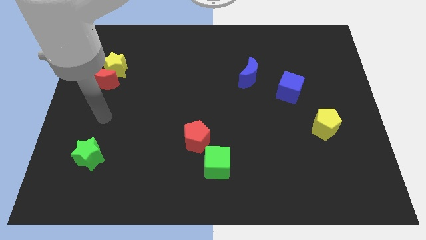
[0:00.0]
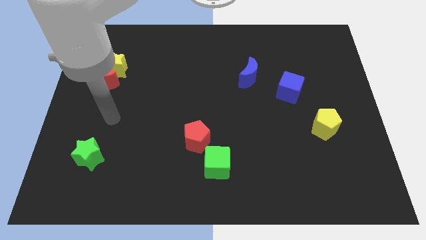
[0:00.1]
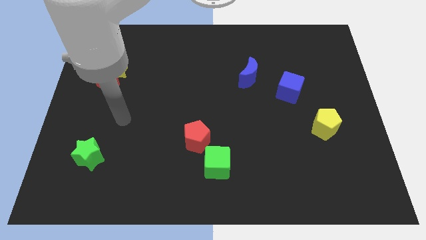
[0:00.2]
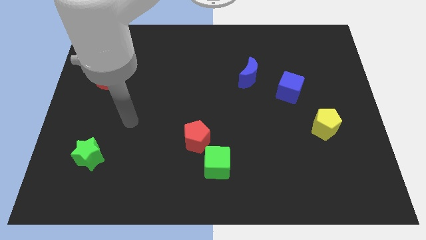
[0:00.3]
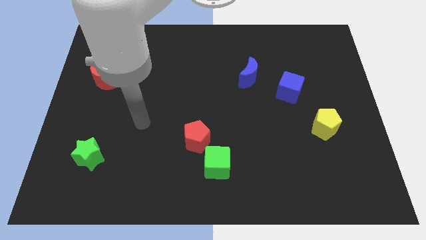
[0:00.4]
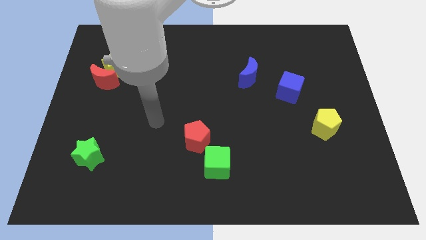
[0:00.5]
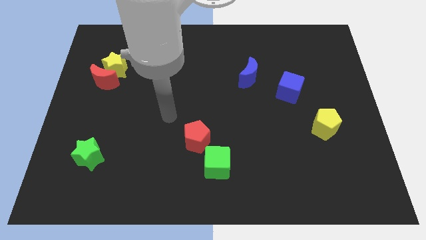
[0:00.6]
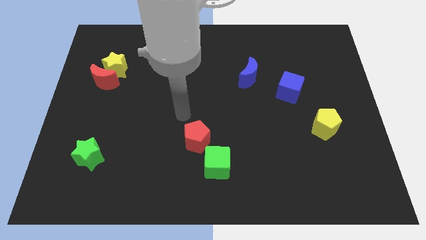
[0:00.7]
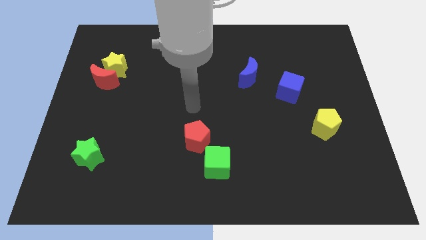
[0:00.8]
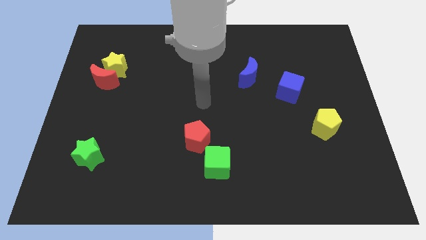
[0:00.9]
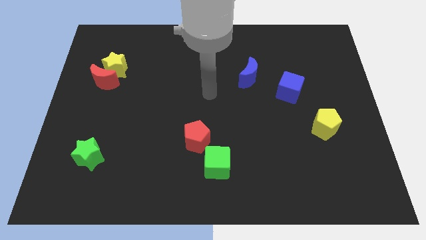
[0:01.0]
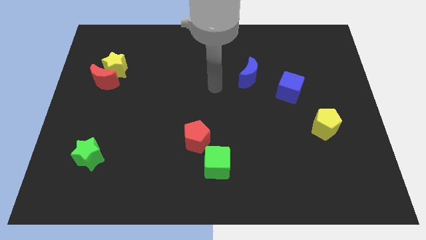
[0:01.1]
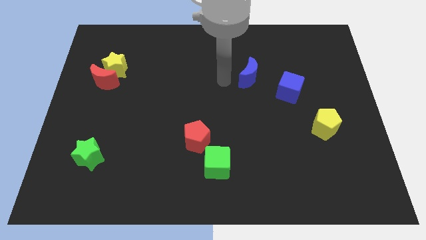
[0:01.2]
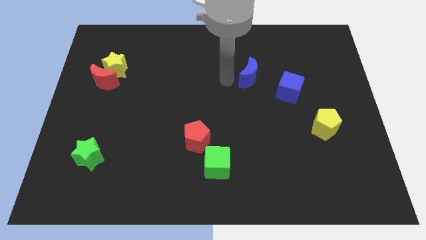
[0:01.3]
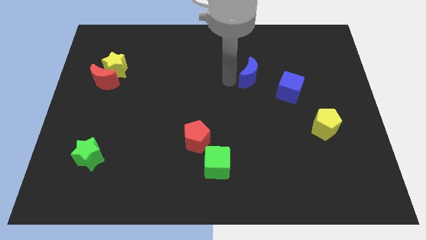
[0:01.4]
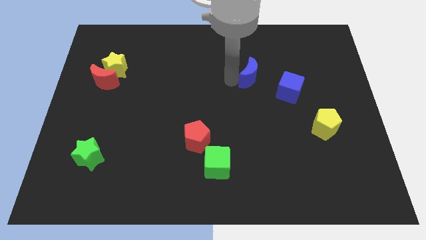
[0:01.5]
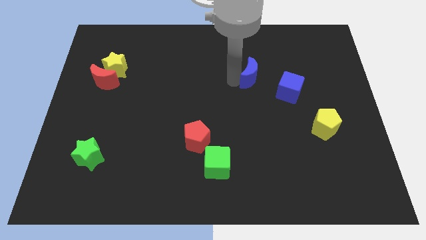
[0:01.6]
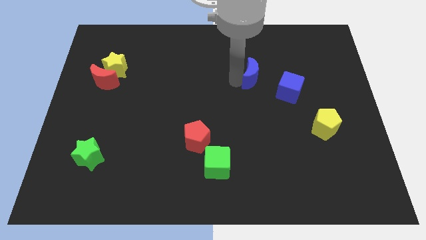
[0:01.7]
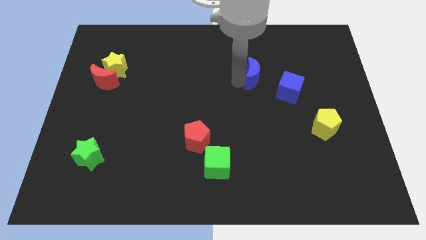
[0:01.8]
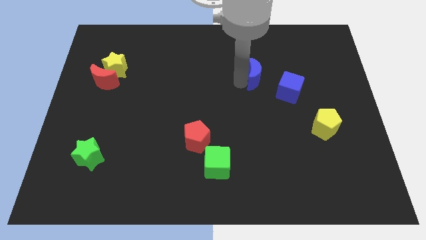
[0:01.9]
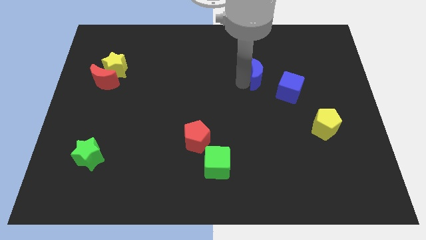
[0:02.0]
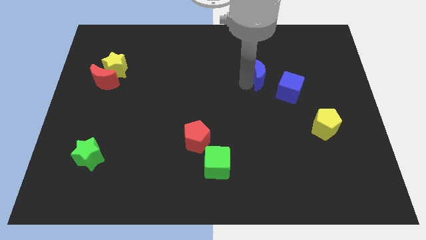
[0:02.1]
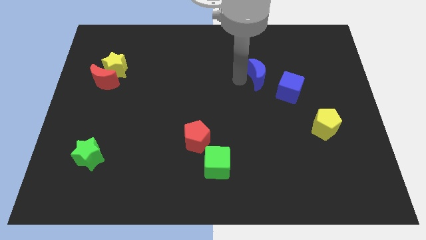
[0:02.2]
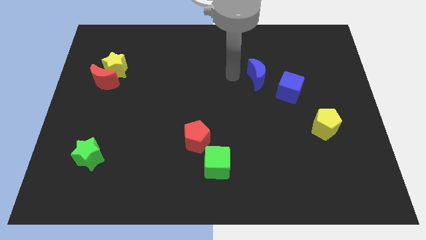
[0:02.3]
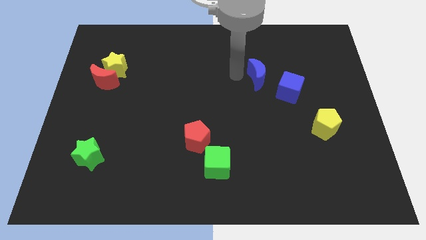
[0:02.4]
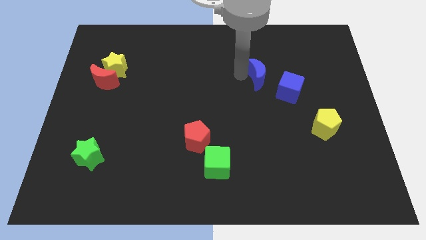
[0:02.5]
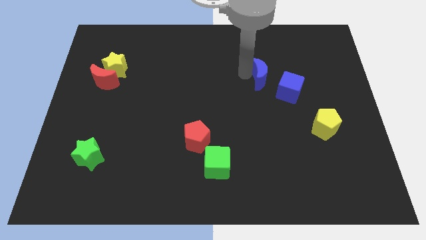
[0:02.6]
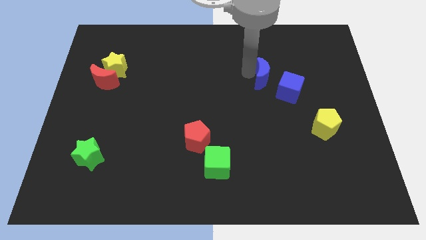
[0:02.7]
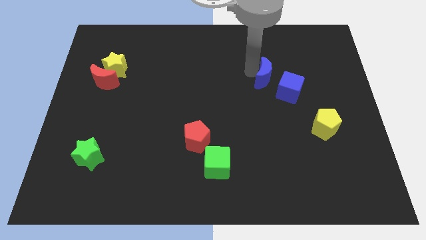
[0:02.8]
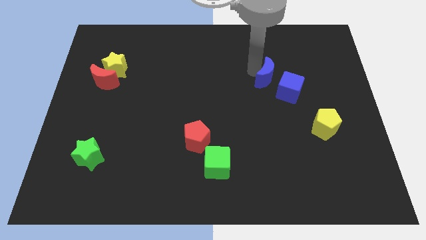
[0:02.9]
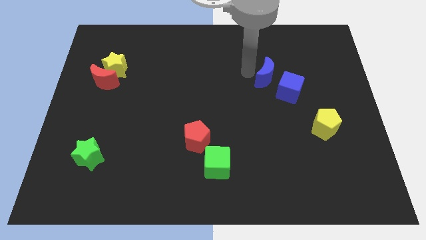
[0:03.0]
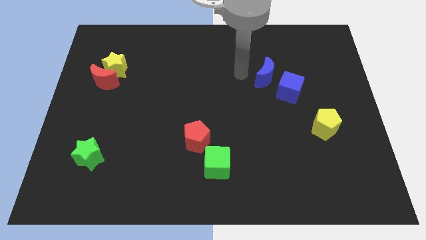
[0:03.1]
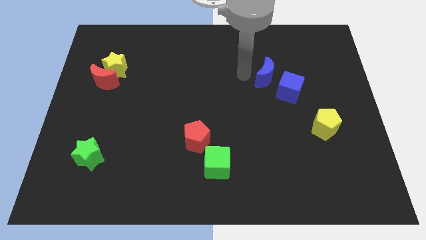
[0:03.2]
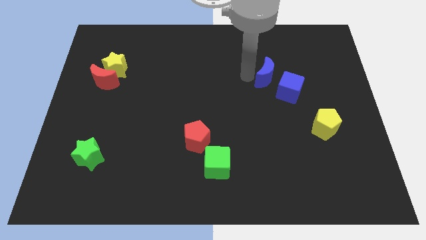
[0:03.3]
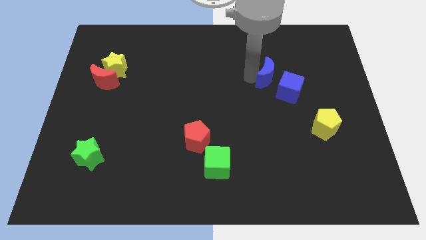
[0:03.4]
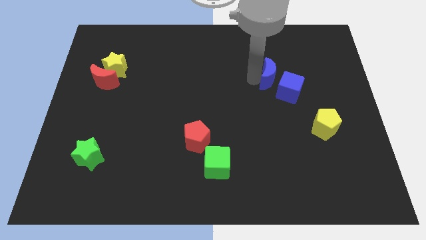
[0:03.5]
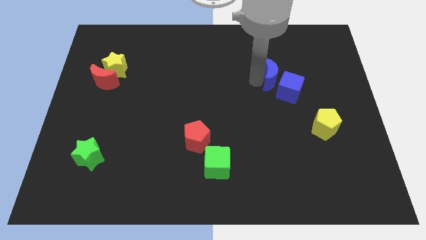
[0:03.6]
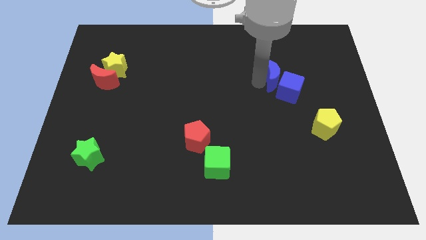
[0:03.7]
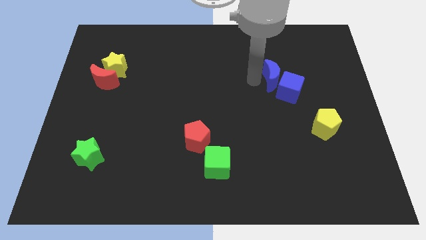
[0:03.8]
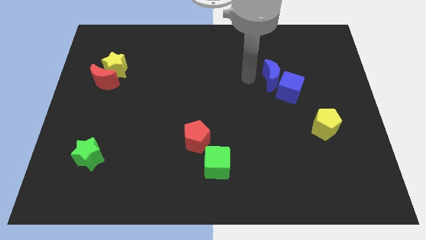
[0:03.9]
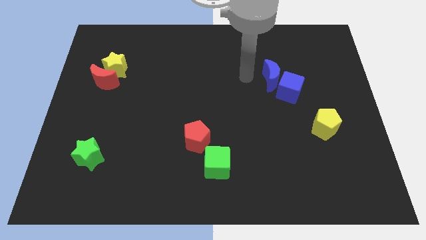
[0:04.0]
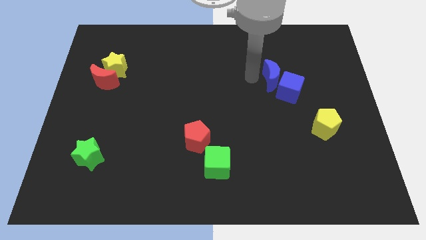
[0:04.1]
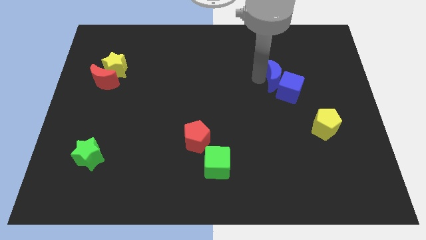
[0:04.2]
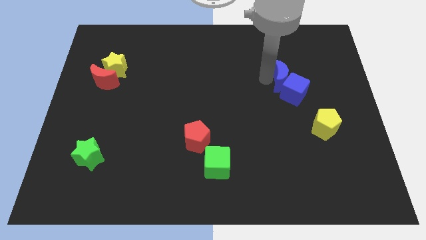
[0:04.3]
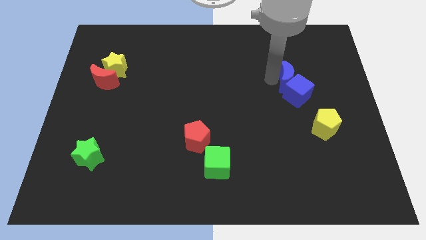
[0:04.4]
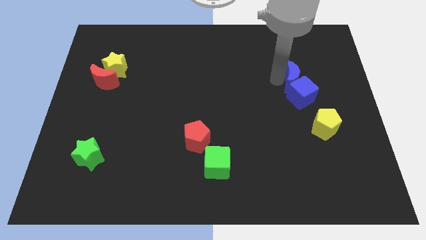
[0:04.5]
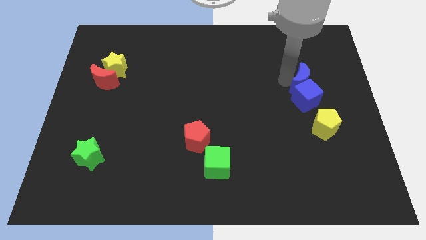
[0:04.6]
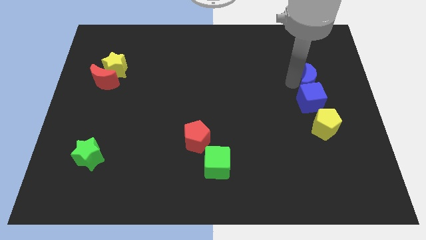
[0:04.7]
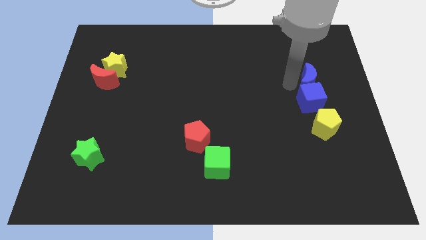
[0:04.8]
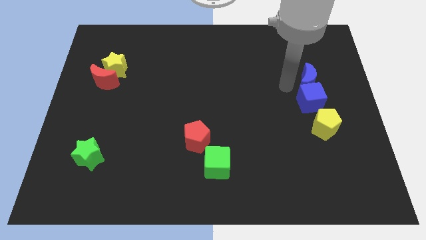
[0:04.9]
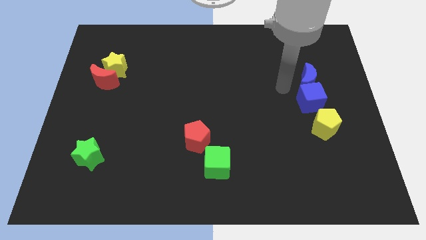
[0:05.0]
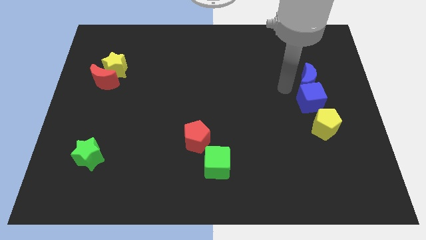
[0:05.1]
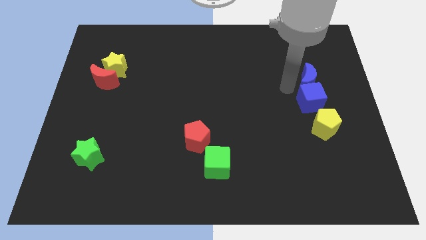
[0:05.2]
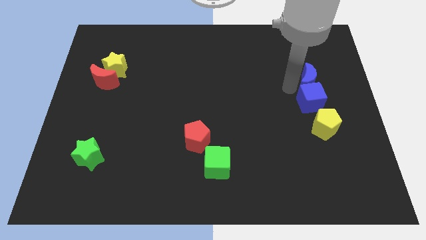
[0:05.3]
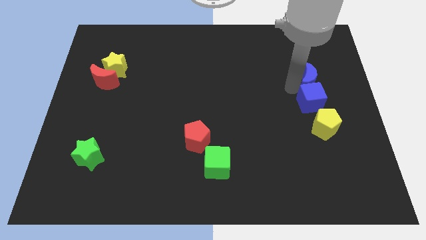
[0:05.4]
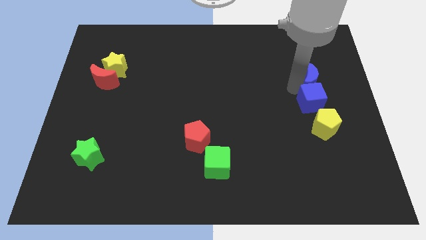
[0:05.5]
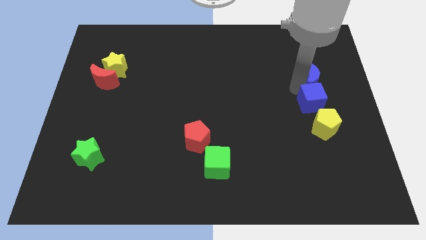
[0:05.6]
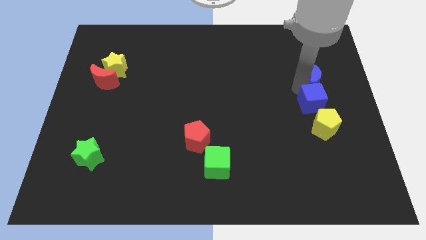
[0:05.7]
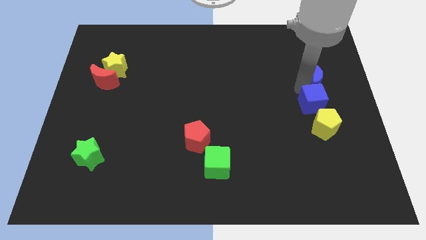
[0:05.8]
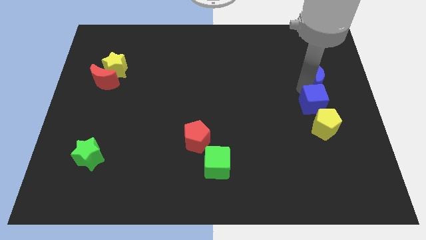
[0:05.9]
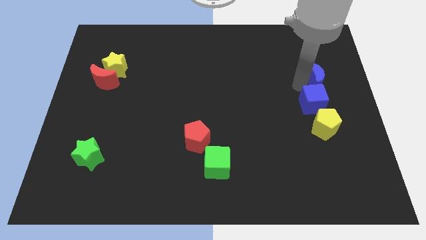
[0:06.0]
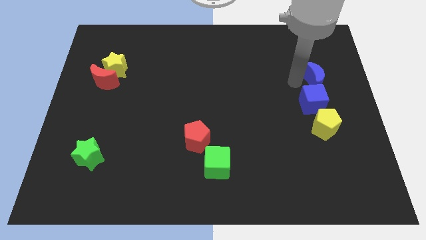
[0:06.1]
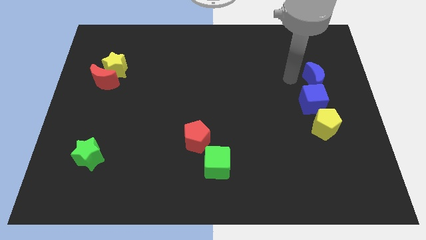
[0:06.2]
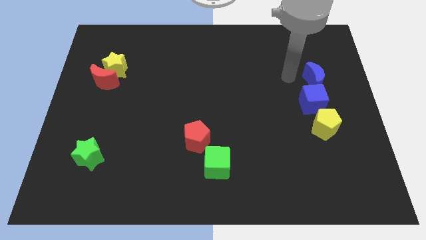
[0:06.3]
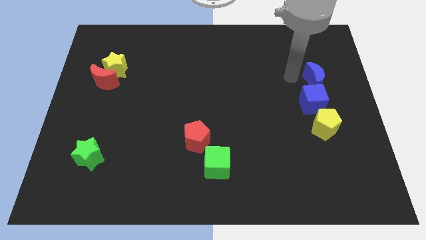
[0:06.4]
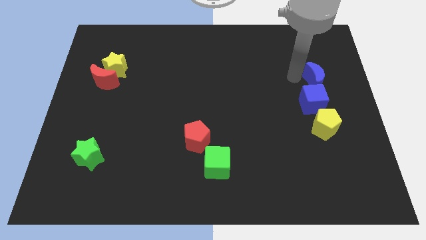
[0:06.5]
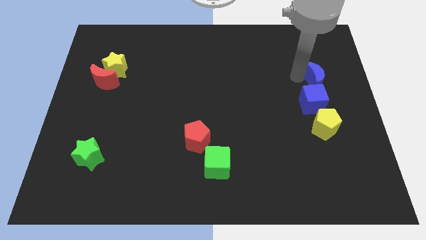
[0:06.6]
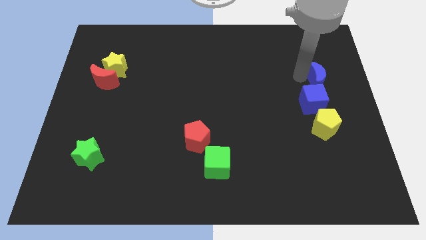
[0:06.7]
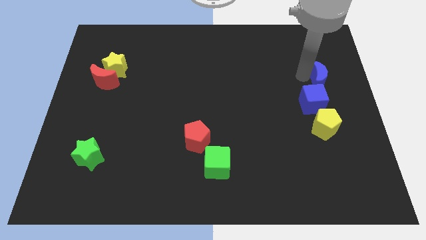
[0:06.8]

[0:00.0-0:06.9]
move the blue moon to the right side of the board
